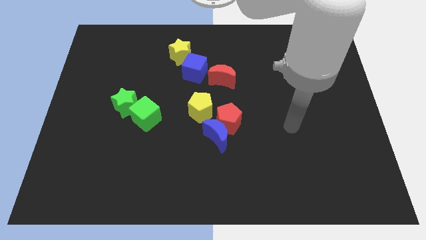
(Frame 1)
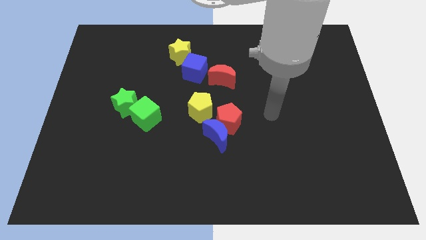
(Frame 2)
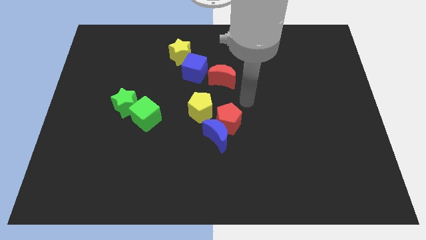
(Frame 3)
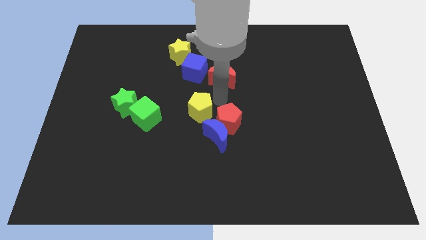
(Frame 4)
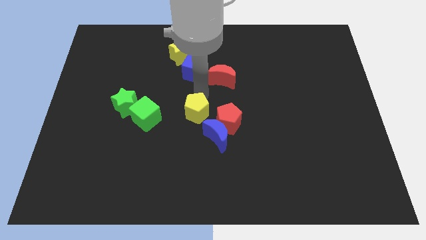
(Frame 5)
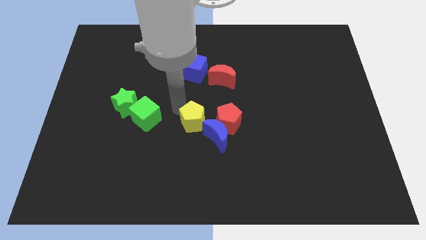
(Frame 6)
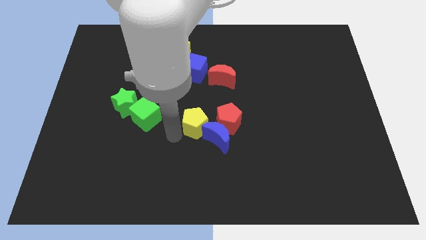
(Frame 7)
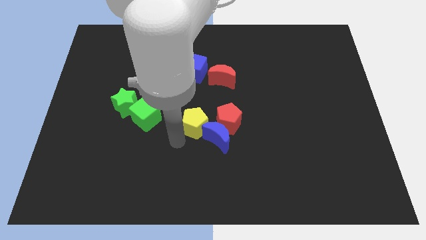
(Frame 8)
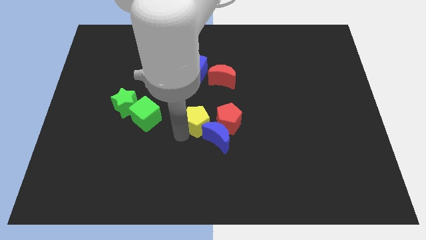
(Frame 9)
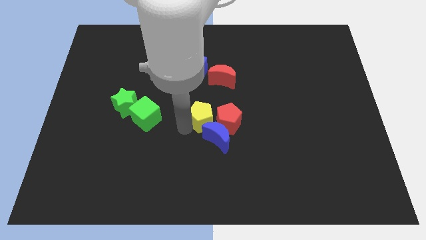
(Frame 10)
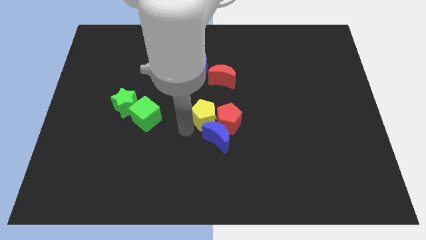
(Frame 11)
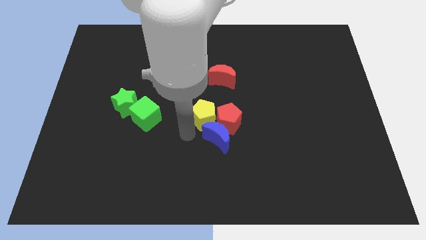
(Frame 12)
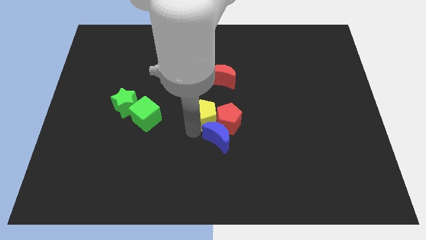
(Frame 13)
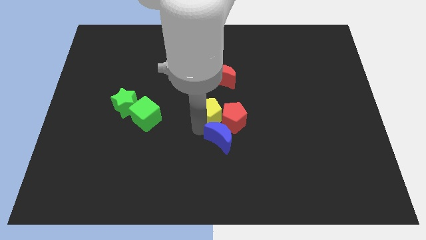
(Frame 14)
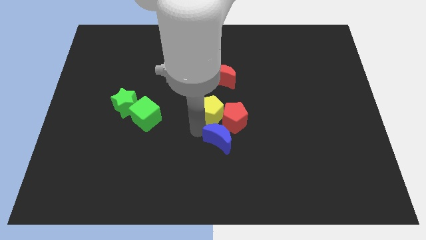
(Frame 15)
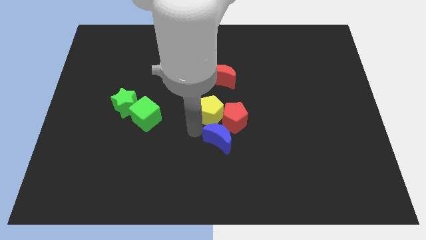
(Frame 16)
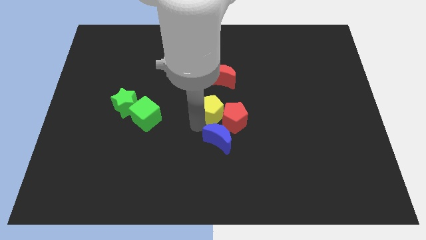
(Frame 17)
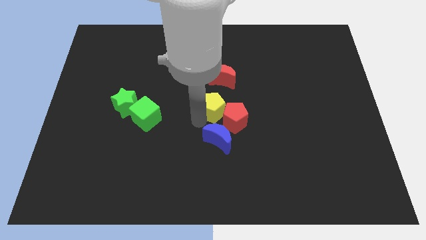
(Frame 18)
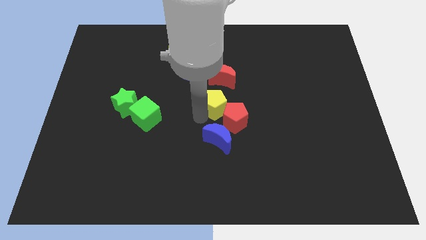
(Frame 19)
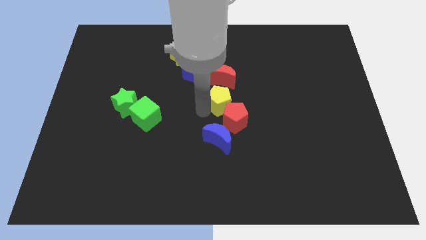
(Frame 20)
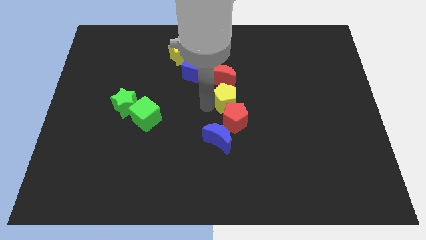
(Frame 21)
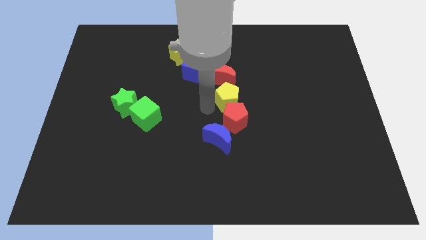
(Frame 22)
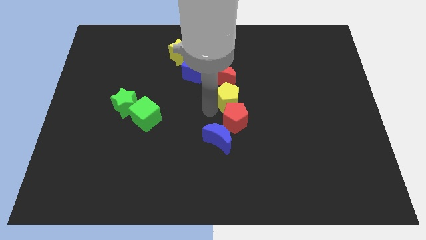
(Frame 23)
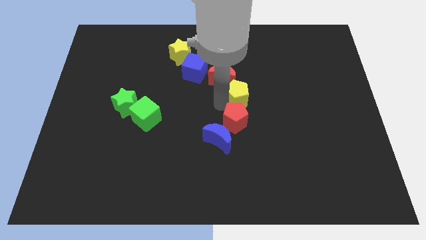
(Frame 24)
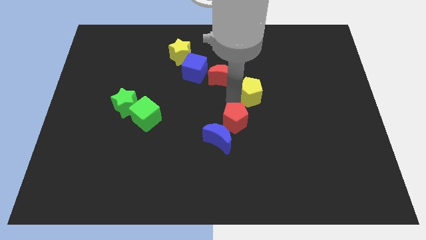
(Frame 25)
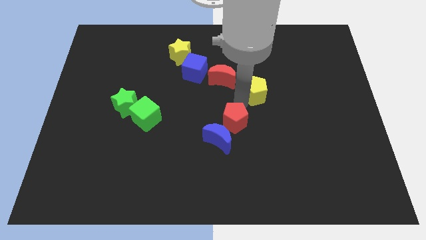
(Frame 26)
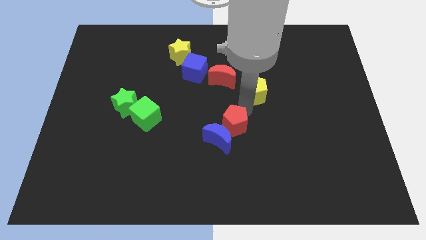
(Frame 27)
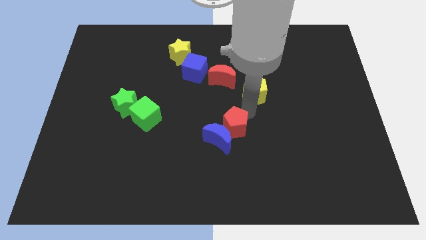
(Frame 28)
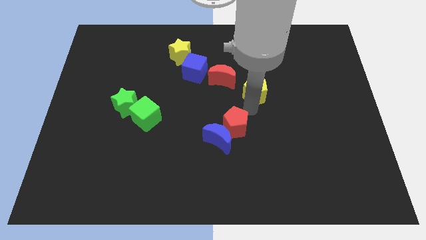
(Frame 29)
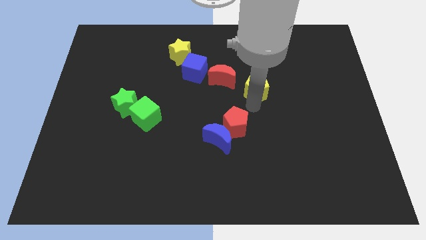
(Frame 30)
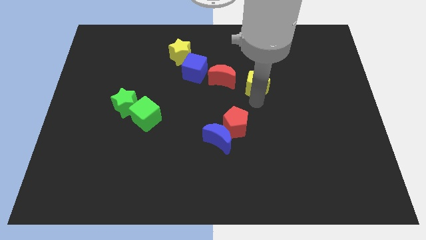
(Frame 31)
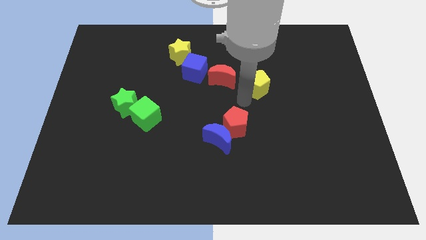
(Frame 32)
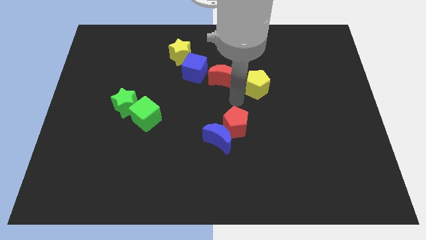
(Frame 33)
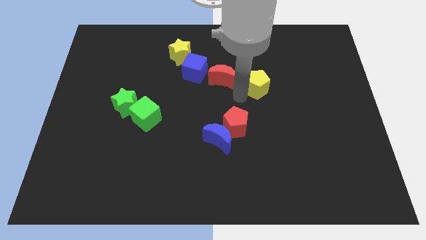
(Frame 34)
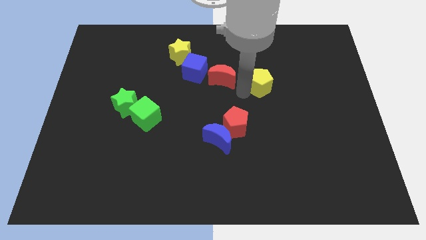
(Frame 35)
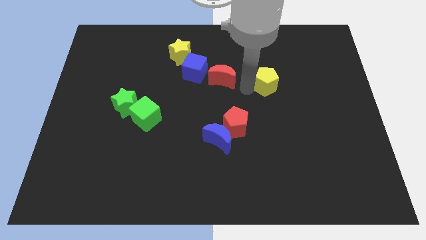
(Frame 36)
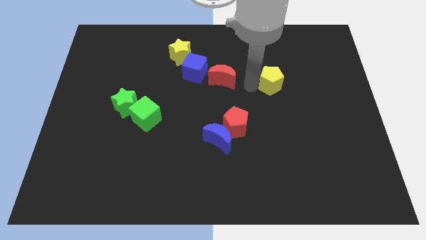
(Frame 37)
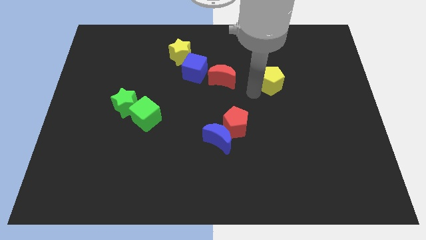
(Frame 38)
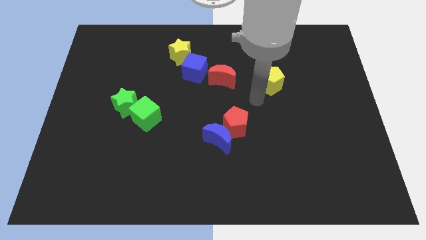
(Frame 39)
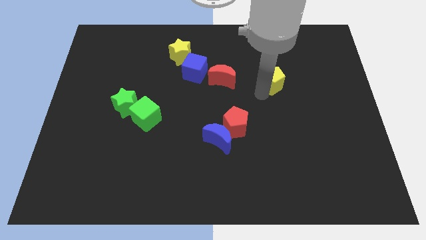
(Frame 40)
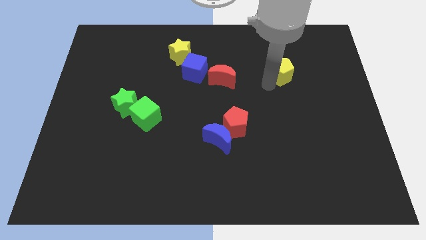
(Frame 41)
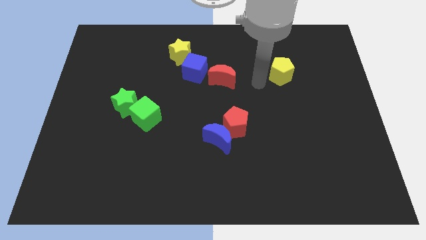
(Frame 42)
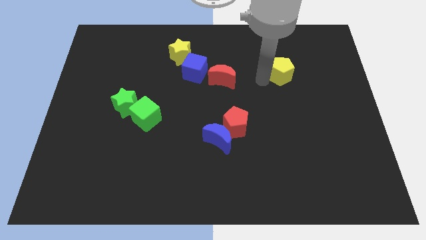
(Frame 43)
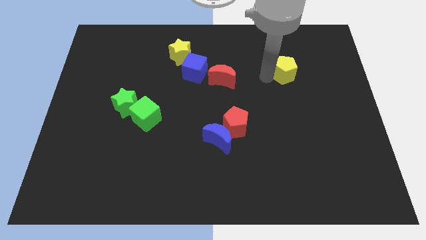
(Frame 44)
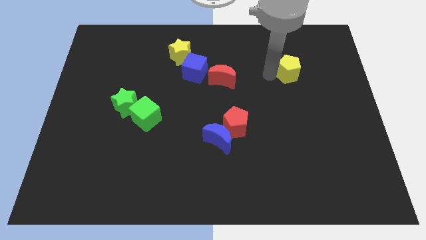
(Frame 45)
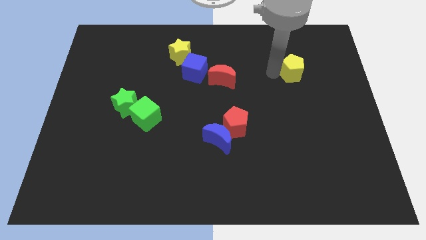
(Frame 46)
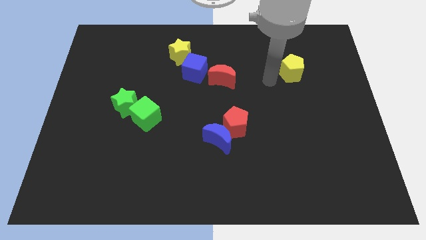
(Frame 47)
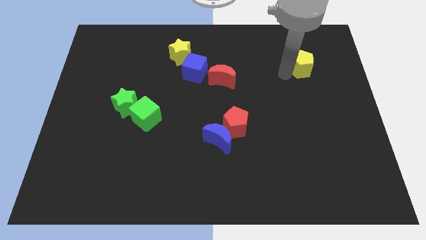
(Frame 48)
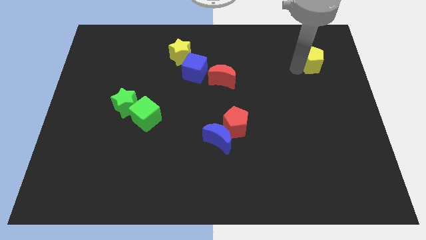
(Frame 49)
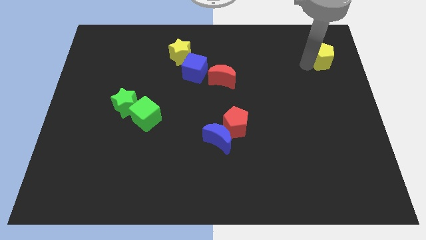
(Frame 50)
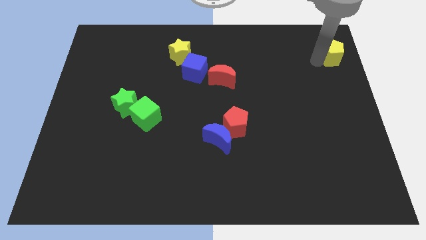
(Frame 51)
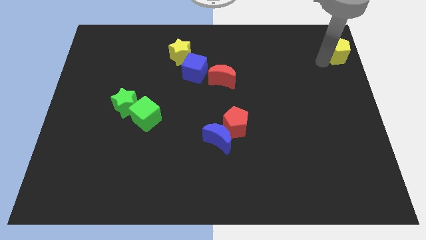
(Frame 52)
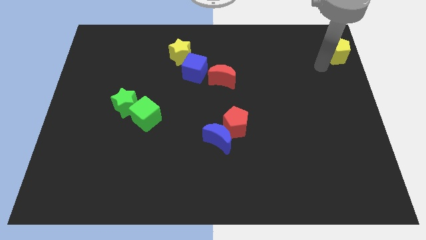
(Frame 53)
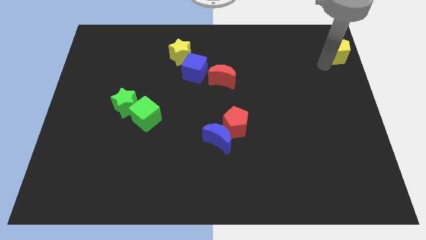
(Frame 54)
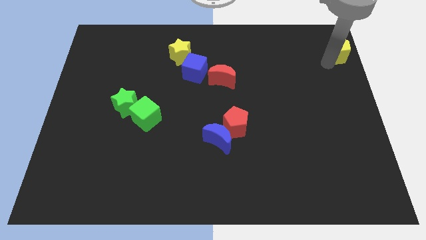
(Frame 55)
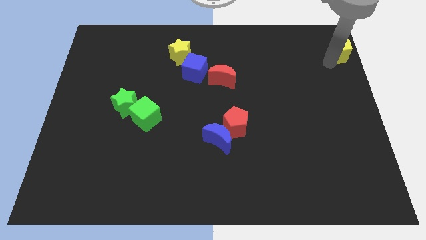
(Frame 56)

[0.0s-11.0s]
push the yellow pentagon to the top right of the board

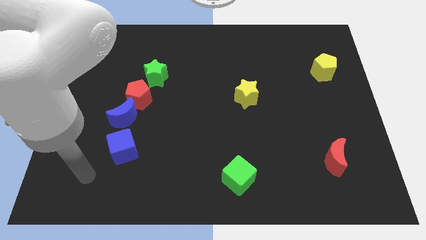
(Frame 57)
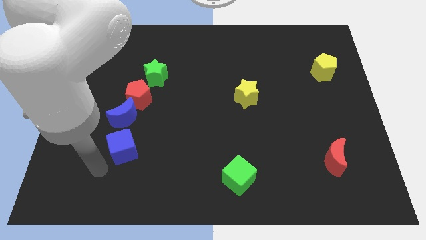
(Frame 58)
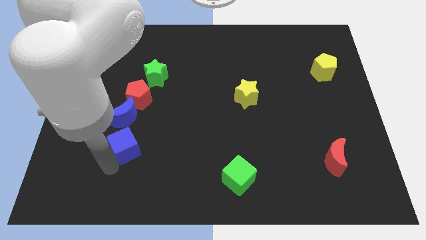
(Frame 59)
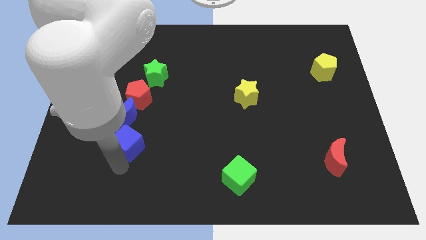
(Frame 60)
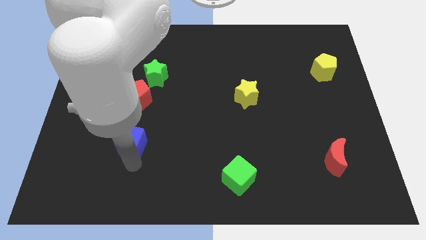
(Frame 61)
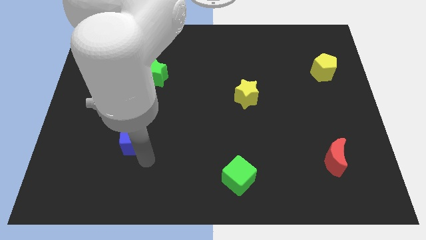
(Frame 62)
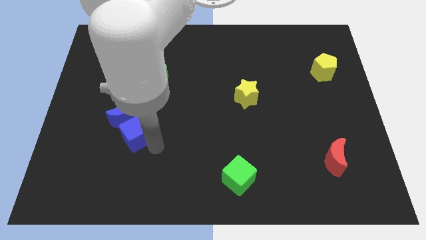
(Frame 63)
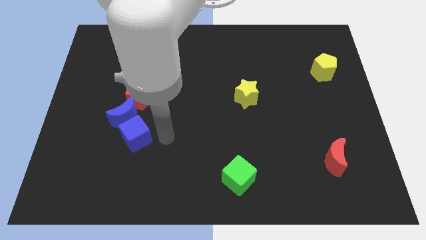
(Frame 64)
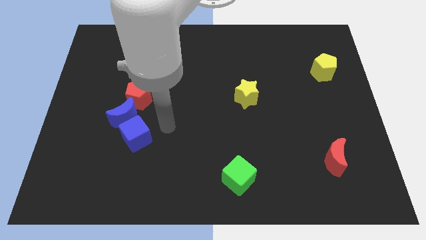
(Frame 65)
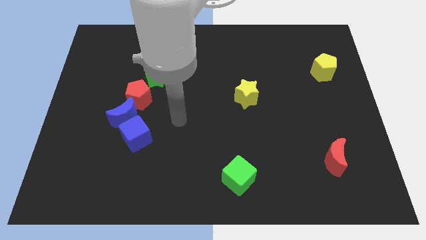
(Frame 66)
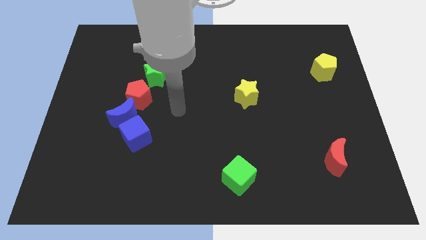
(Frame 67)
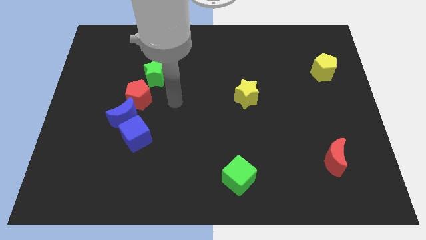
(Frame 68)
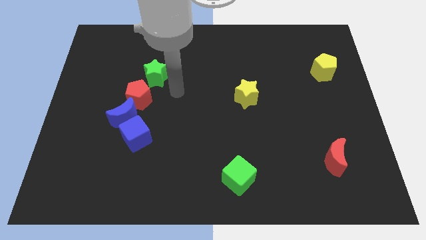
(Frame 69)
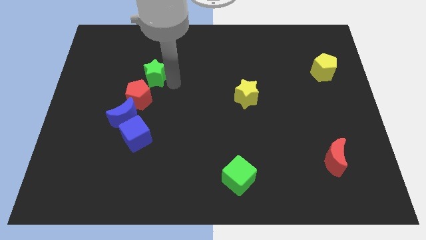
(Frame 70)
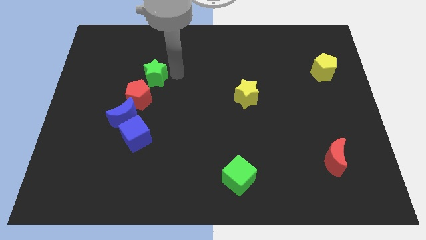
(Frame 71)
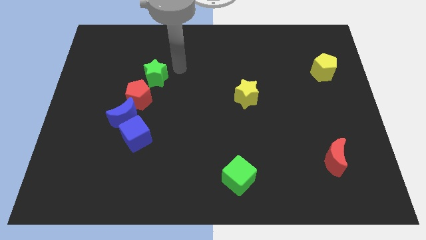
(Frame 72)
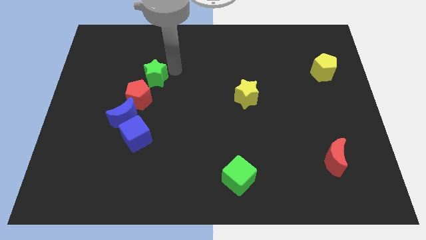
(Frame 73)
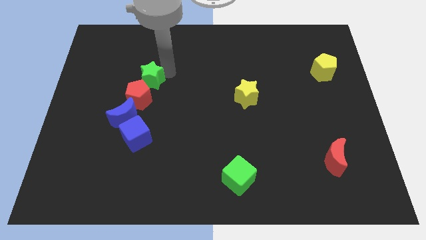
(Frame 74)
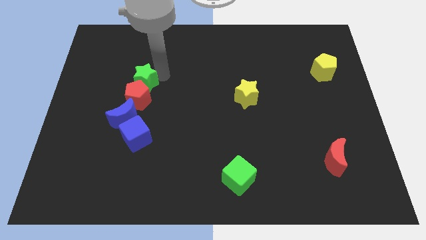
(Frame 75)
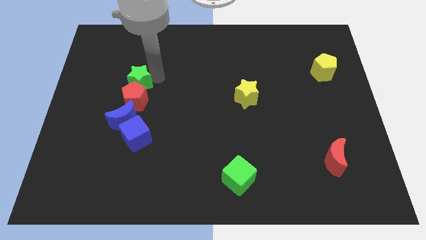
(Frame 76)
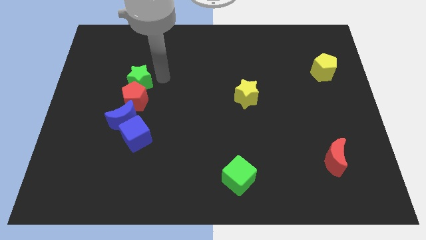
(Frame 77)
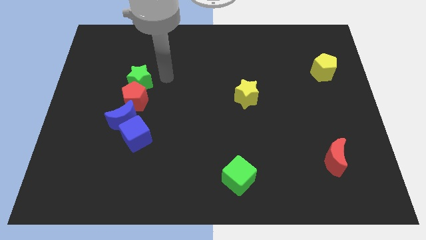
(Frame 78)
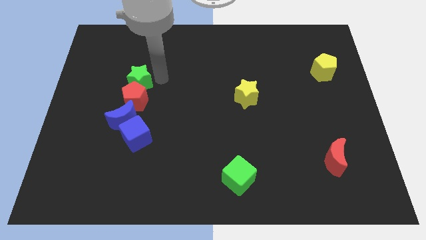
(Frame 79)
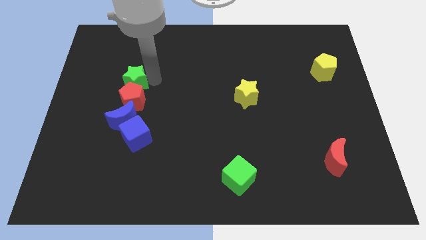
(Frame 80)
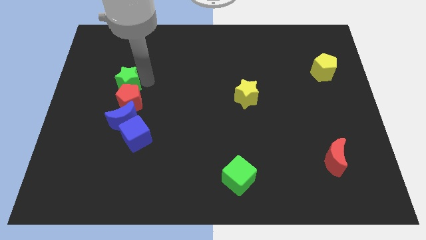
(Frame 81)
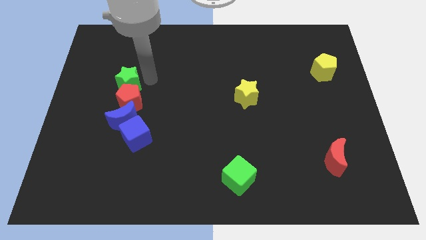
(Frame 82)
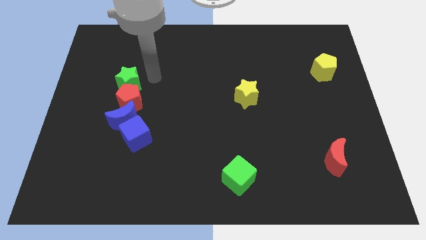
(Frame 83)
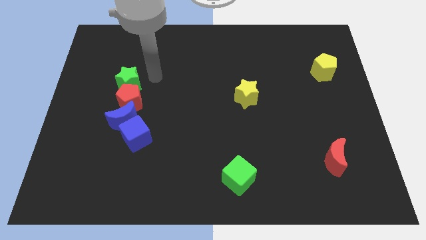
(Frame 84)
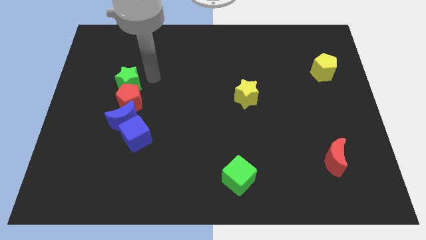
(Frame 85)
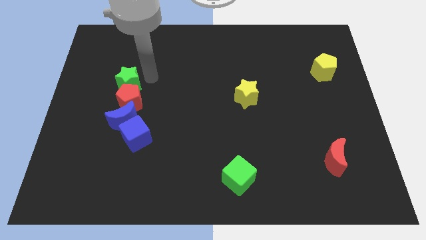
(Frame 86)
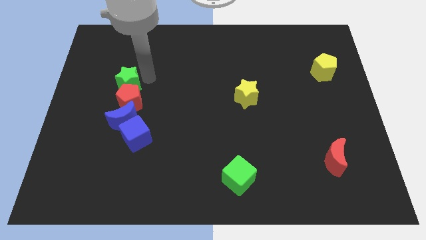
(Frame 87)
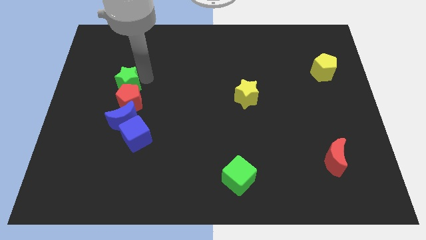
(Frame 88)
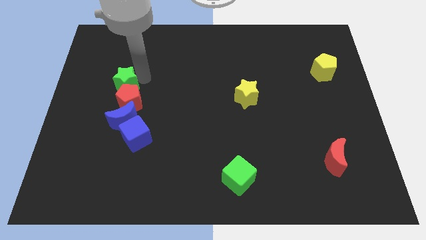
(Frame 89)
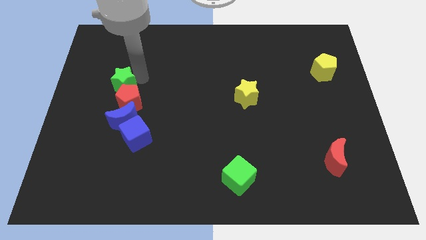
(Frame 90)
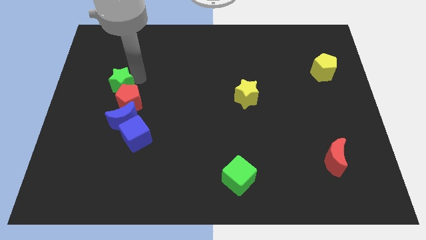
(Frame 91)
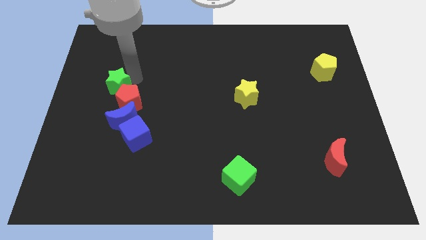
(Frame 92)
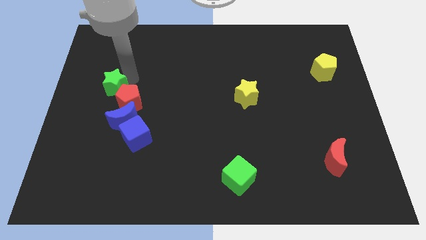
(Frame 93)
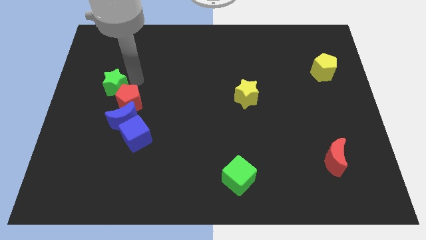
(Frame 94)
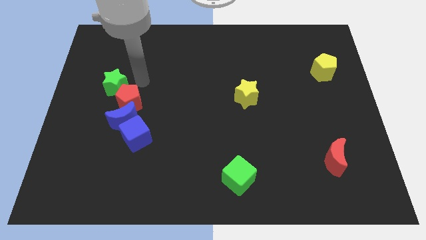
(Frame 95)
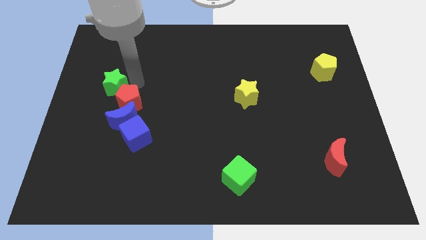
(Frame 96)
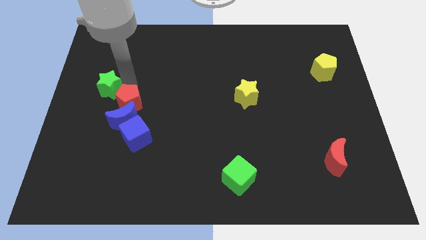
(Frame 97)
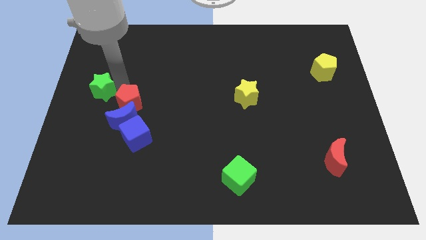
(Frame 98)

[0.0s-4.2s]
slide the green star to the left side of the board
